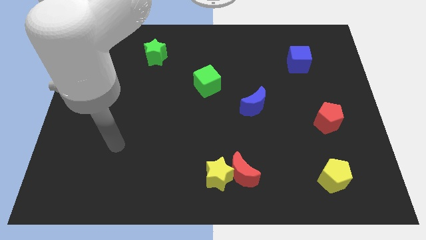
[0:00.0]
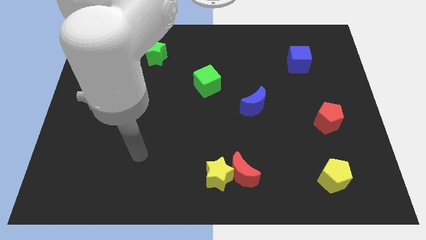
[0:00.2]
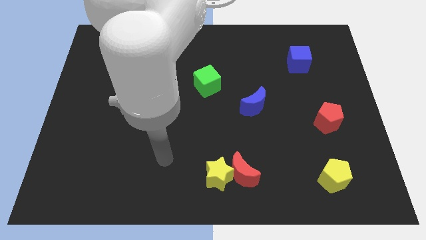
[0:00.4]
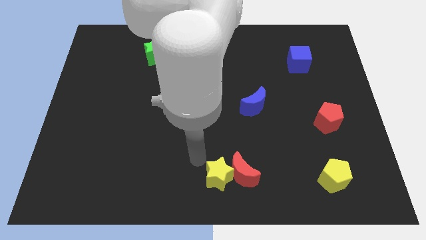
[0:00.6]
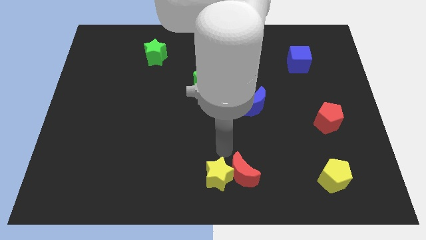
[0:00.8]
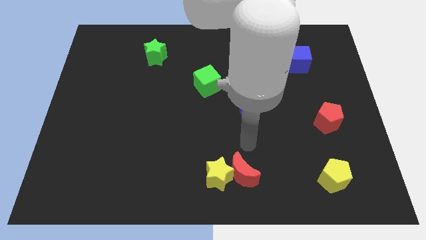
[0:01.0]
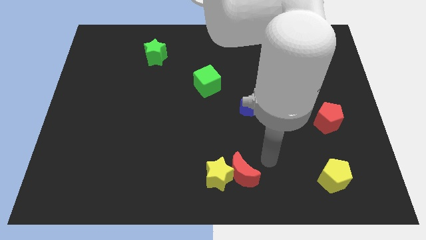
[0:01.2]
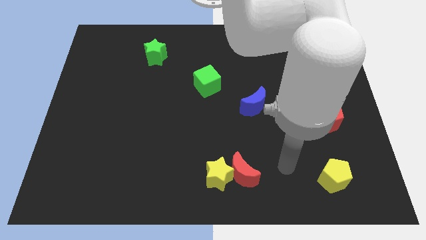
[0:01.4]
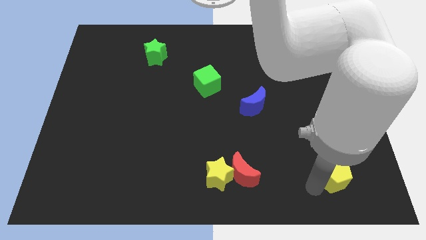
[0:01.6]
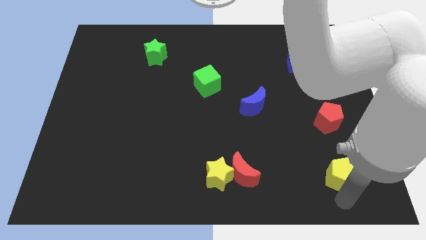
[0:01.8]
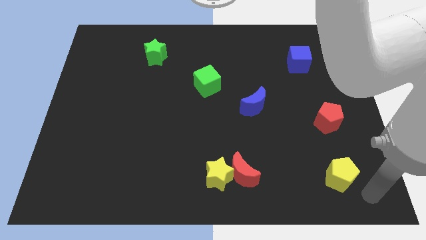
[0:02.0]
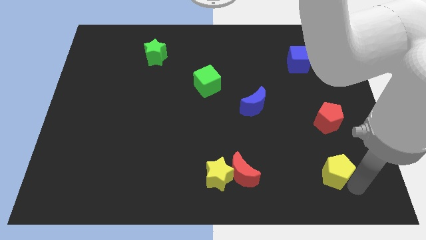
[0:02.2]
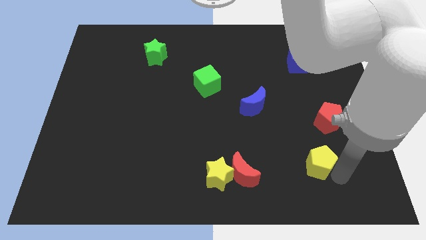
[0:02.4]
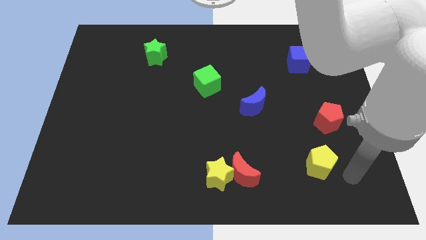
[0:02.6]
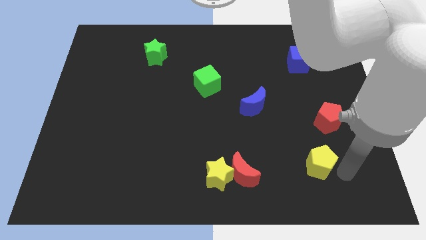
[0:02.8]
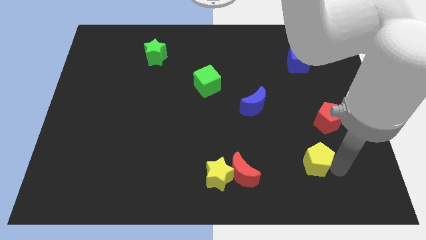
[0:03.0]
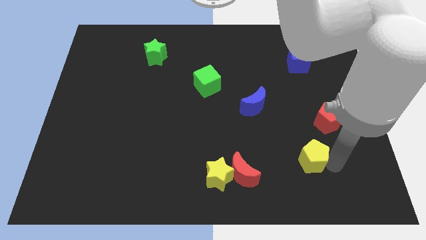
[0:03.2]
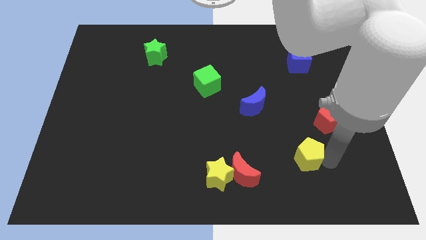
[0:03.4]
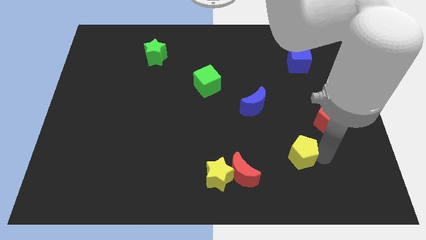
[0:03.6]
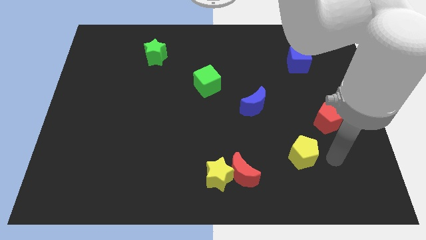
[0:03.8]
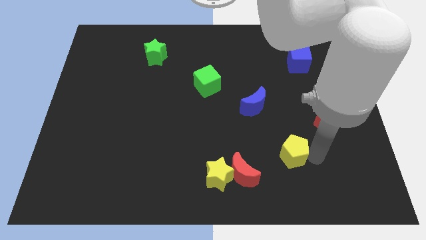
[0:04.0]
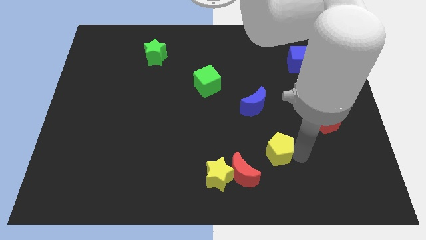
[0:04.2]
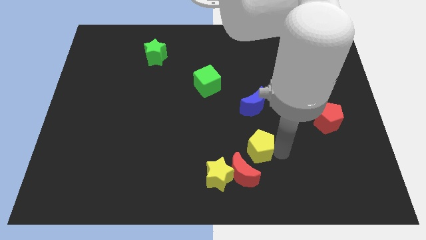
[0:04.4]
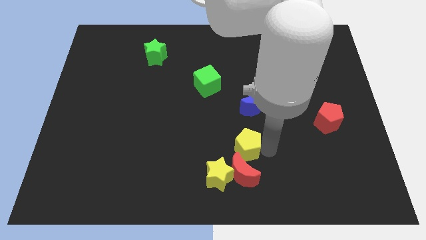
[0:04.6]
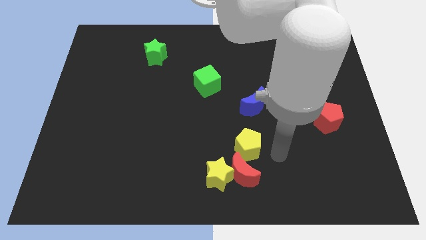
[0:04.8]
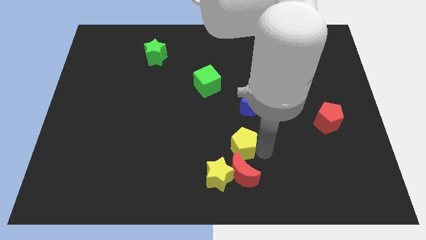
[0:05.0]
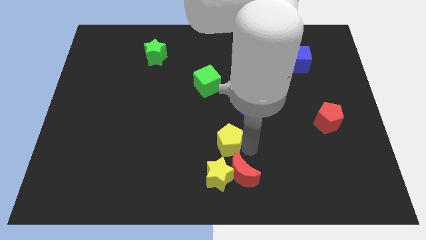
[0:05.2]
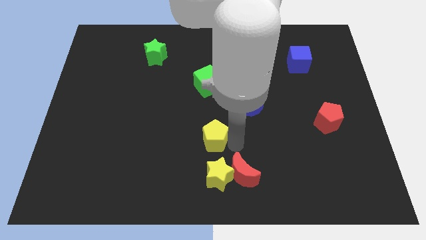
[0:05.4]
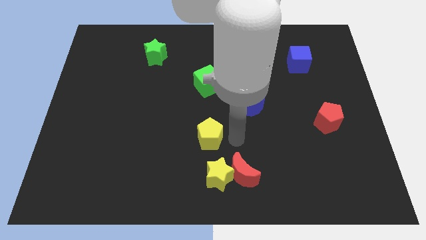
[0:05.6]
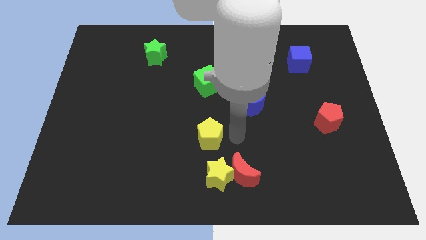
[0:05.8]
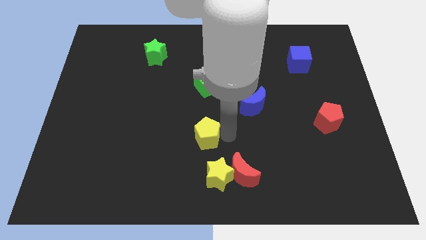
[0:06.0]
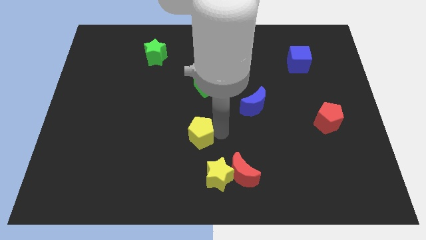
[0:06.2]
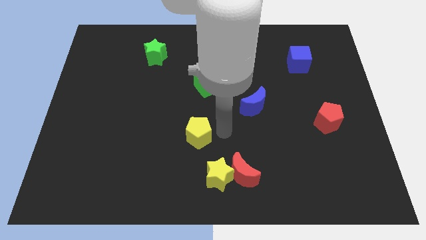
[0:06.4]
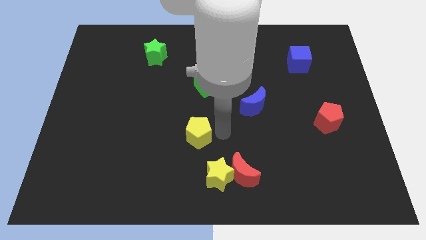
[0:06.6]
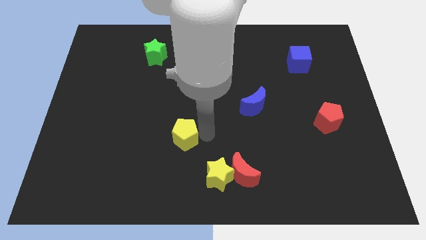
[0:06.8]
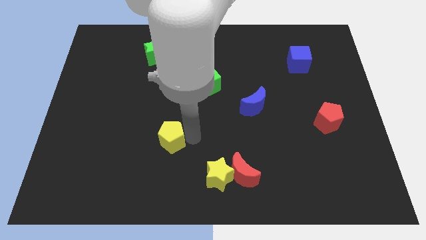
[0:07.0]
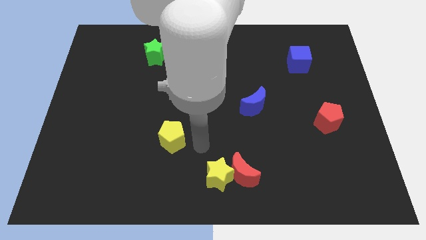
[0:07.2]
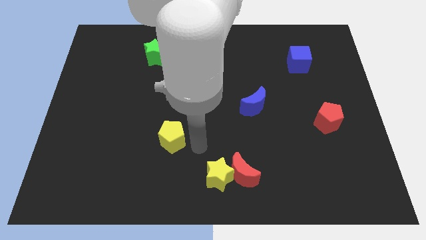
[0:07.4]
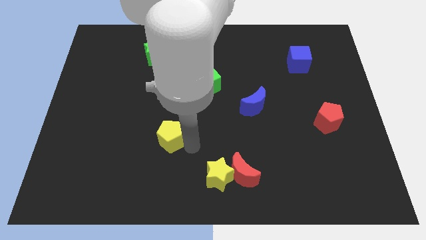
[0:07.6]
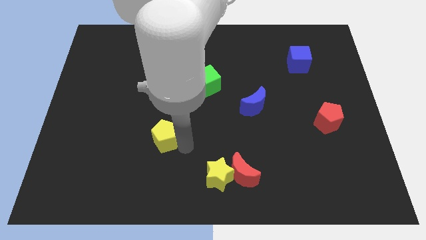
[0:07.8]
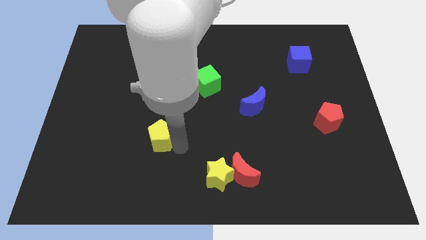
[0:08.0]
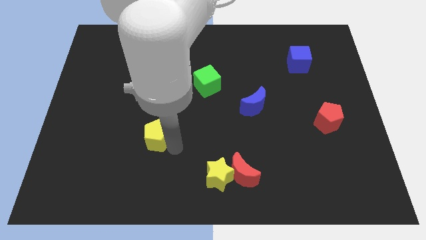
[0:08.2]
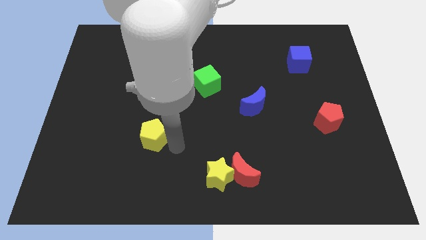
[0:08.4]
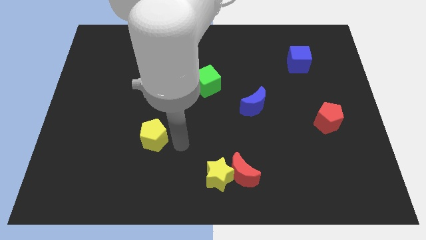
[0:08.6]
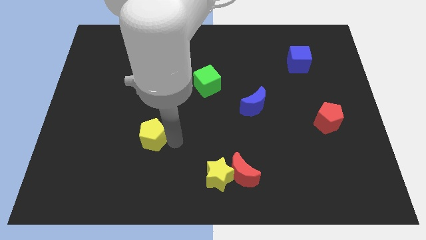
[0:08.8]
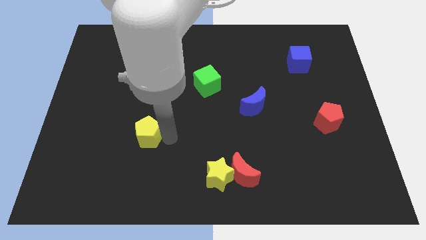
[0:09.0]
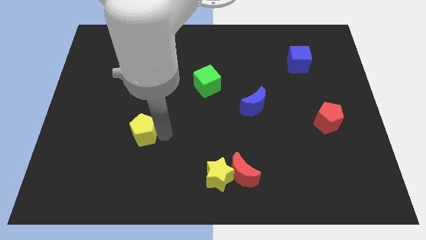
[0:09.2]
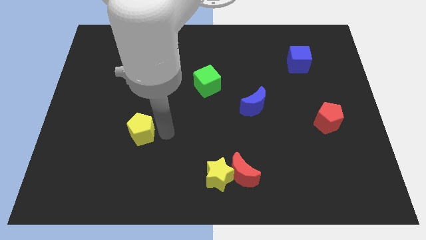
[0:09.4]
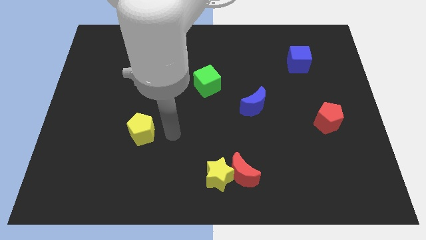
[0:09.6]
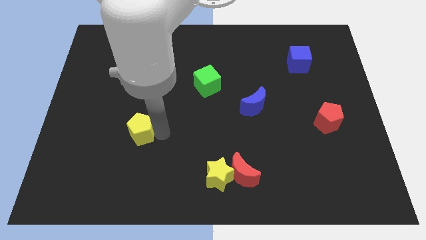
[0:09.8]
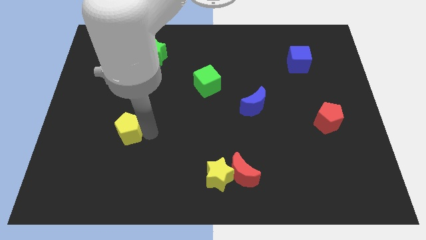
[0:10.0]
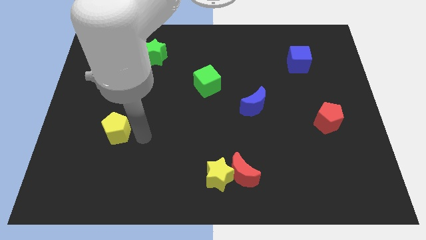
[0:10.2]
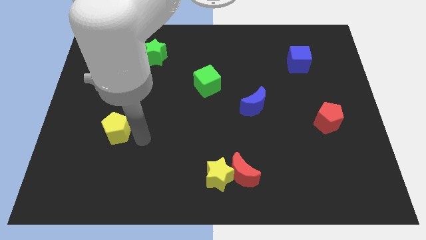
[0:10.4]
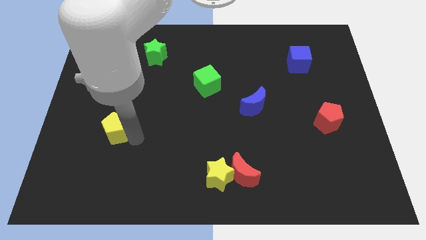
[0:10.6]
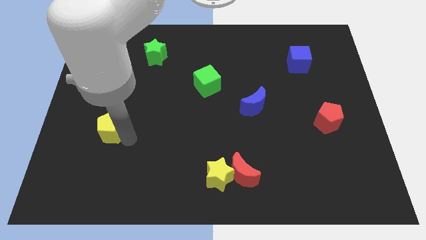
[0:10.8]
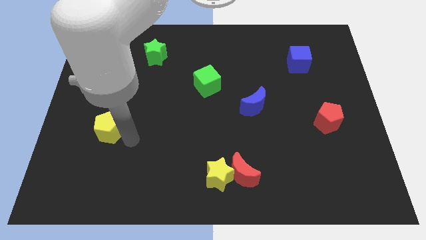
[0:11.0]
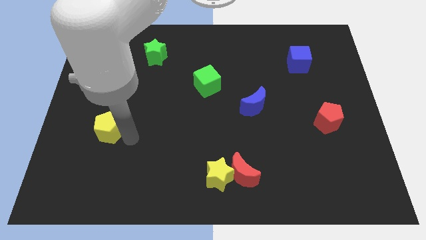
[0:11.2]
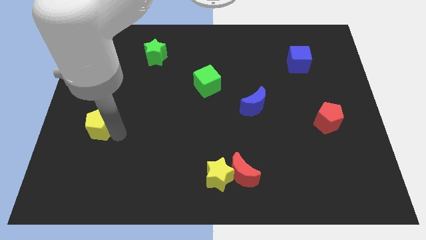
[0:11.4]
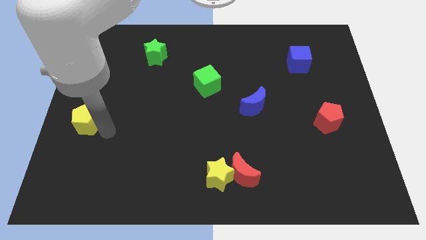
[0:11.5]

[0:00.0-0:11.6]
move the yellow pentagon to the left side of the board
